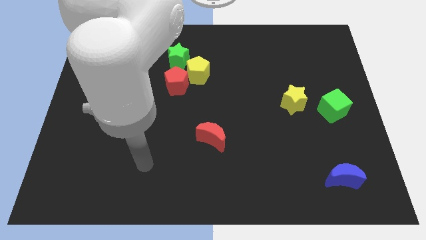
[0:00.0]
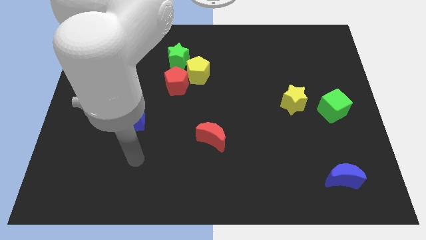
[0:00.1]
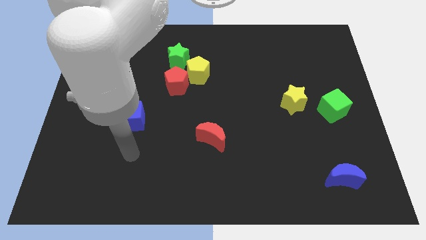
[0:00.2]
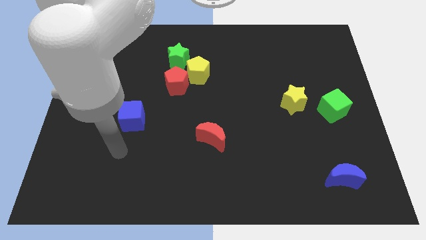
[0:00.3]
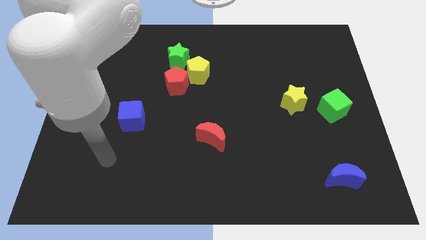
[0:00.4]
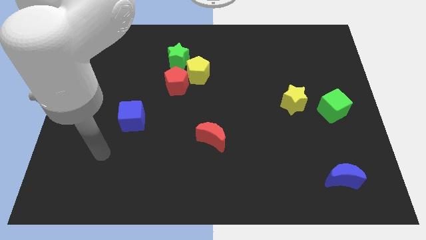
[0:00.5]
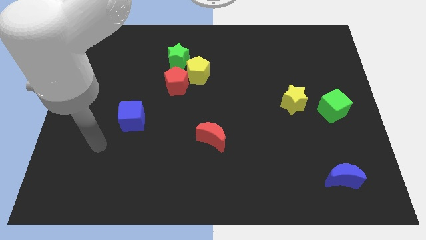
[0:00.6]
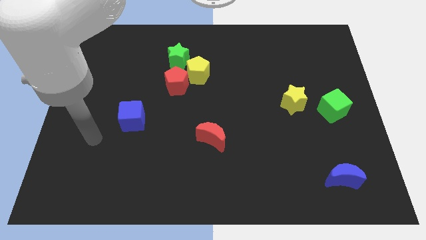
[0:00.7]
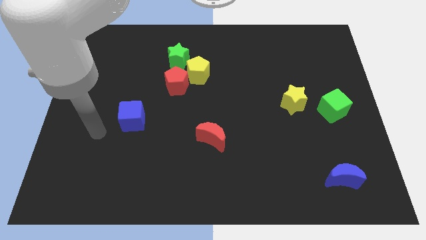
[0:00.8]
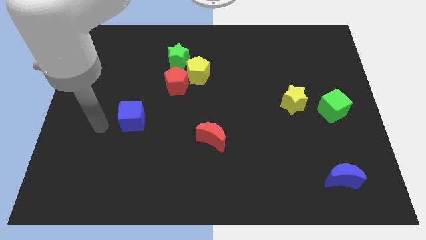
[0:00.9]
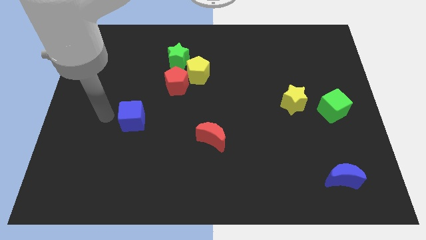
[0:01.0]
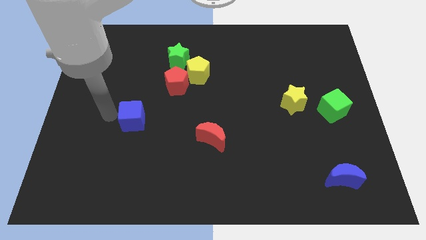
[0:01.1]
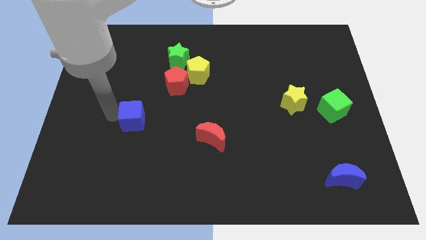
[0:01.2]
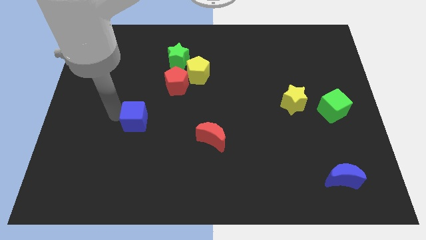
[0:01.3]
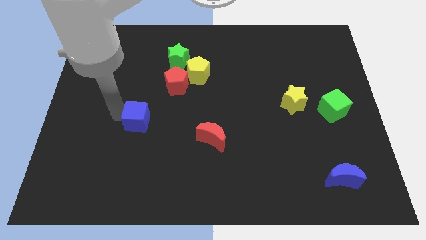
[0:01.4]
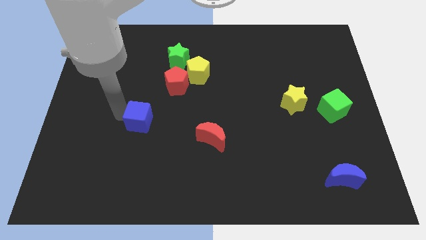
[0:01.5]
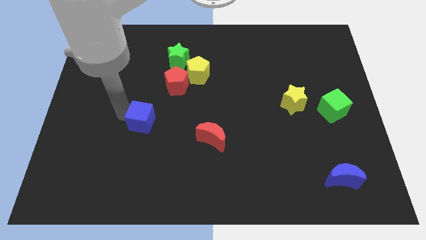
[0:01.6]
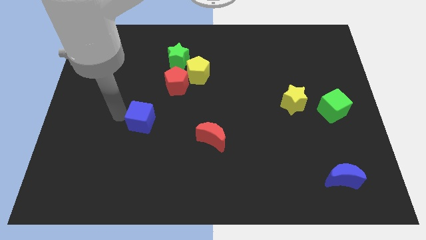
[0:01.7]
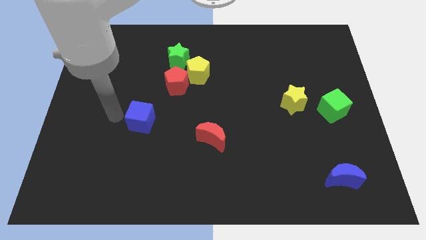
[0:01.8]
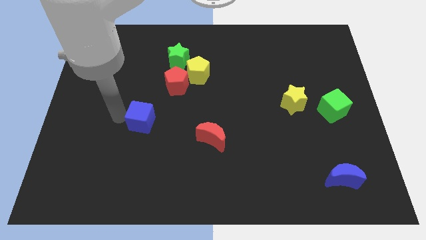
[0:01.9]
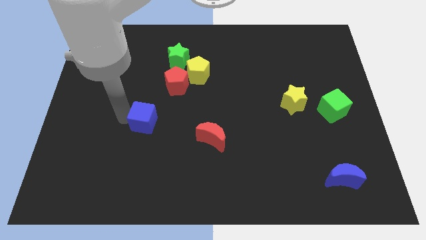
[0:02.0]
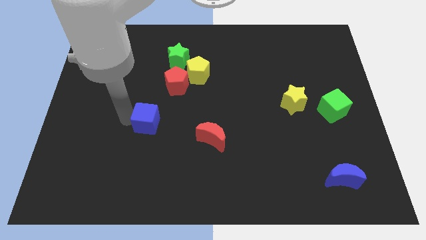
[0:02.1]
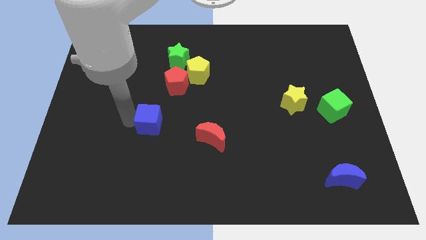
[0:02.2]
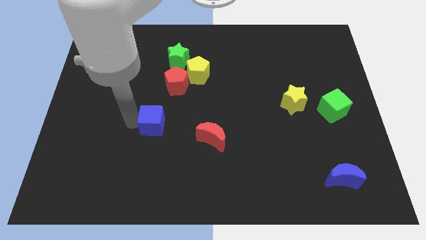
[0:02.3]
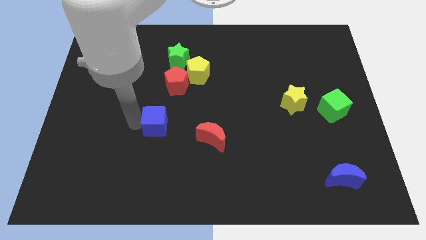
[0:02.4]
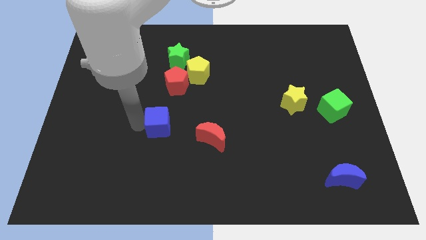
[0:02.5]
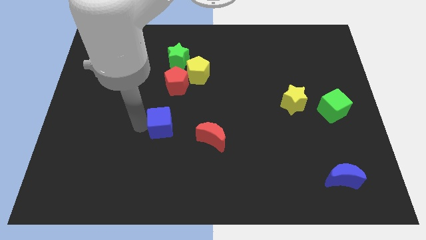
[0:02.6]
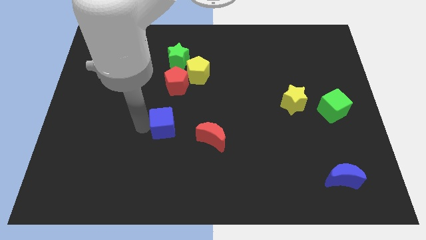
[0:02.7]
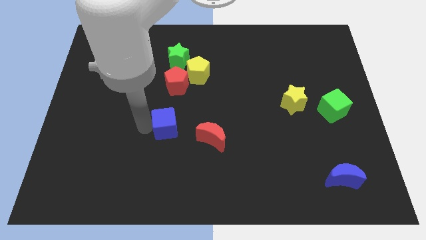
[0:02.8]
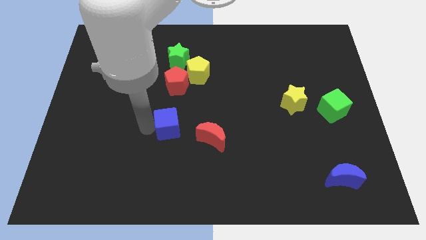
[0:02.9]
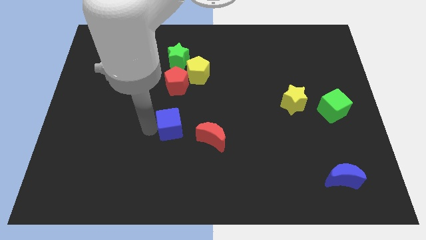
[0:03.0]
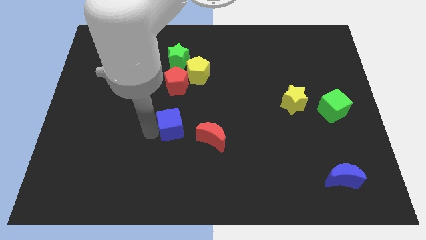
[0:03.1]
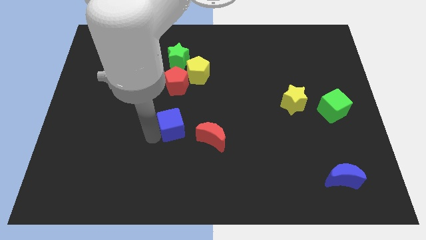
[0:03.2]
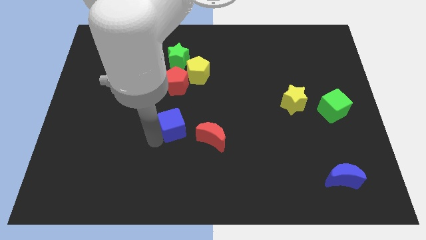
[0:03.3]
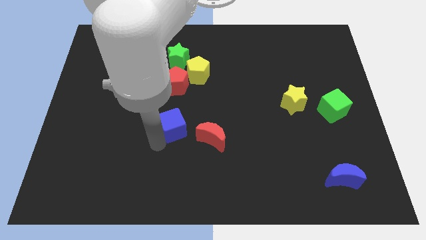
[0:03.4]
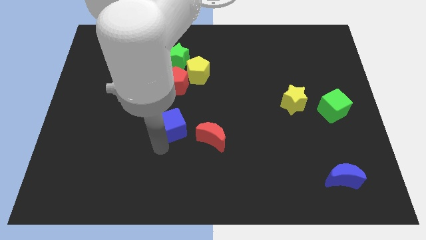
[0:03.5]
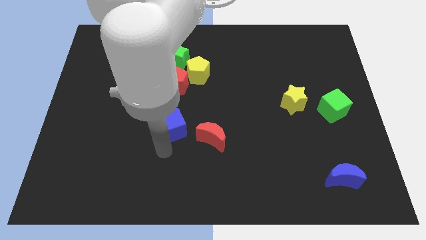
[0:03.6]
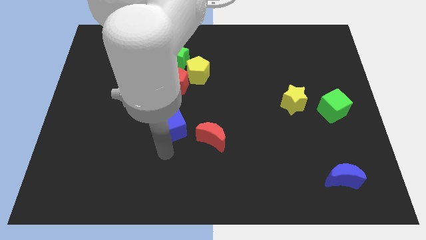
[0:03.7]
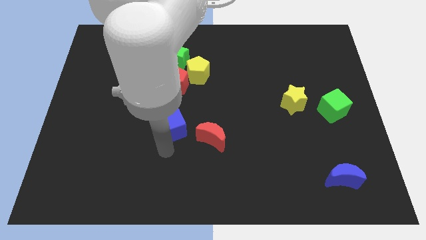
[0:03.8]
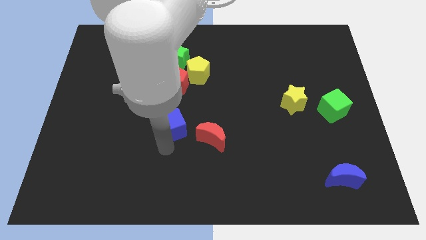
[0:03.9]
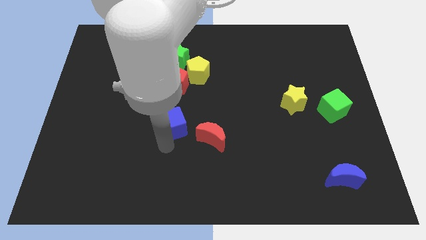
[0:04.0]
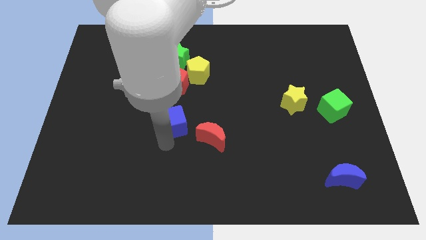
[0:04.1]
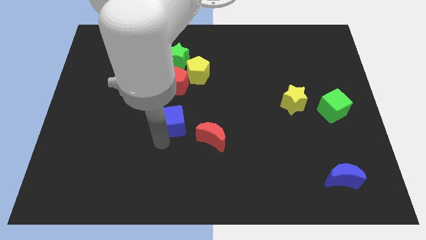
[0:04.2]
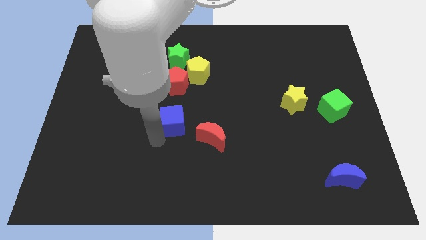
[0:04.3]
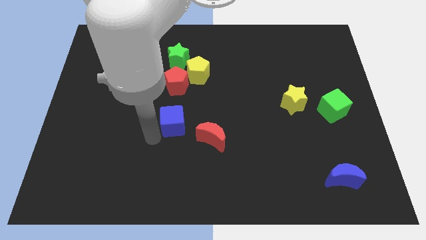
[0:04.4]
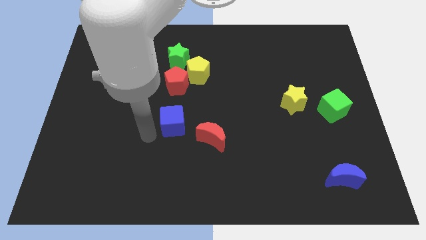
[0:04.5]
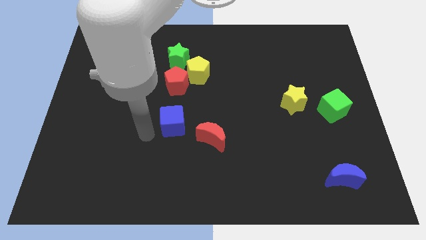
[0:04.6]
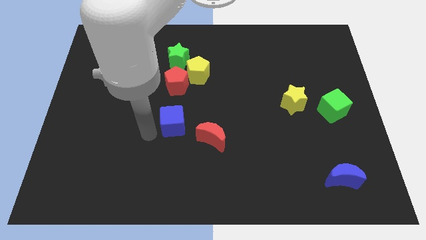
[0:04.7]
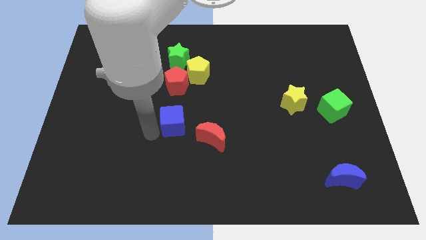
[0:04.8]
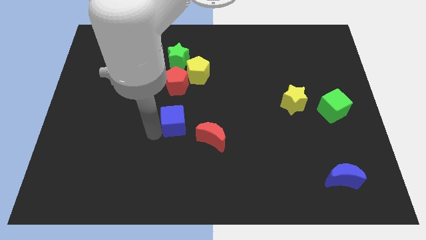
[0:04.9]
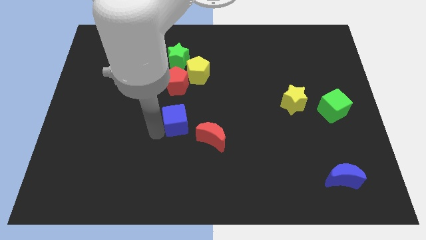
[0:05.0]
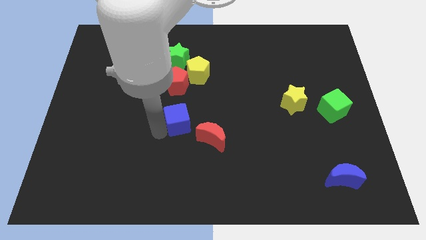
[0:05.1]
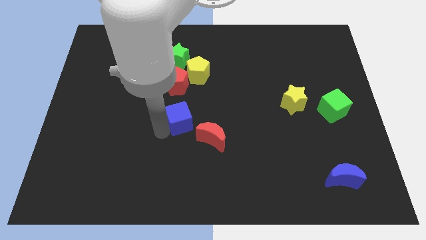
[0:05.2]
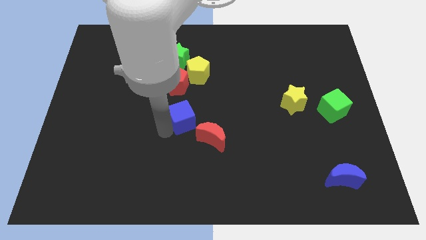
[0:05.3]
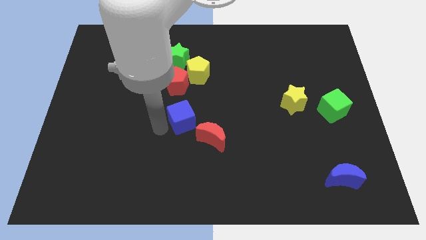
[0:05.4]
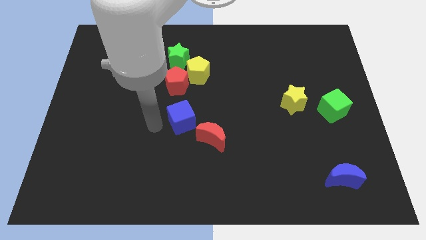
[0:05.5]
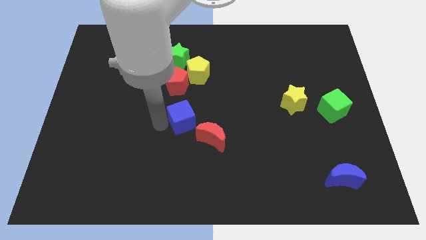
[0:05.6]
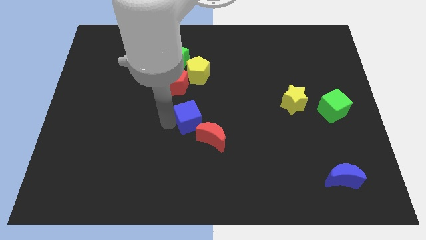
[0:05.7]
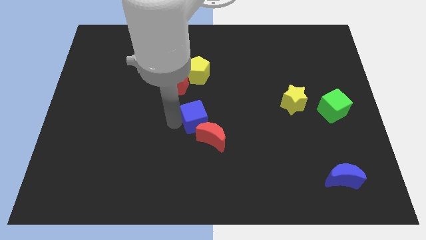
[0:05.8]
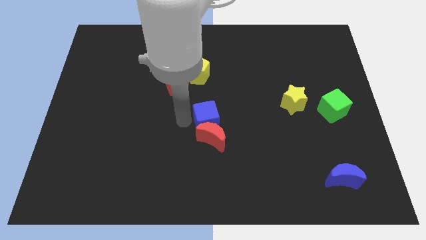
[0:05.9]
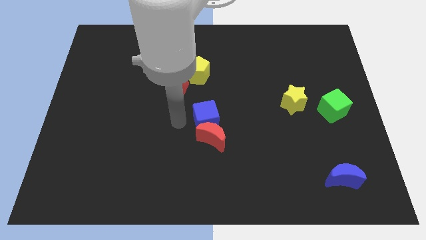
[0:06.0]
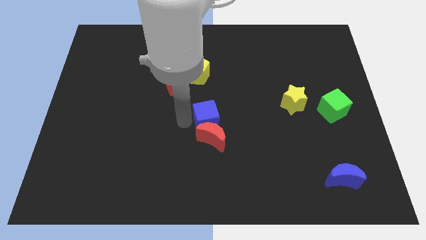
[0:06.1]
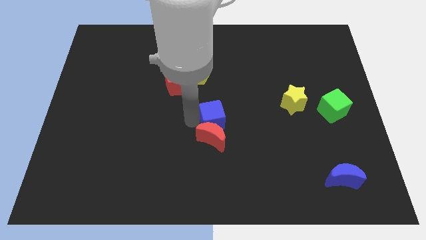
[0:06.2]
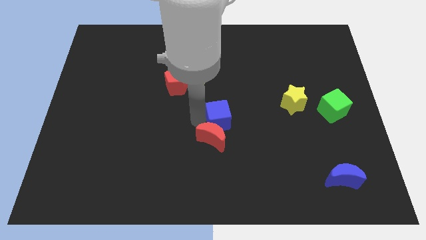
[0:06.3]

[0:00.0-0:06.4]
slide the blue cube right

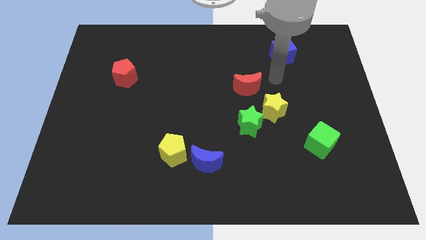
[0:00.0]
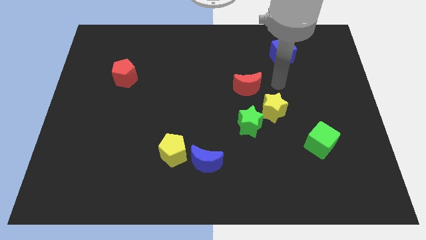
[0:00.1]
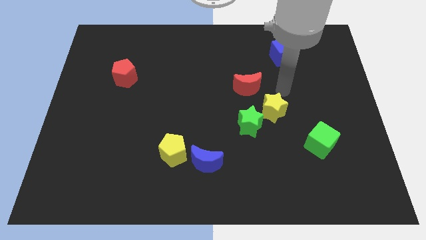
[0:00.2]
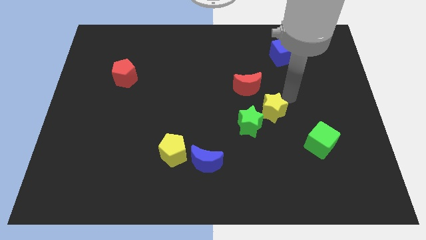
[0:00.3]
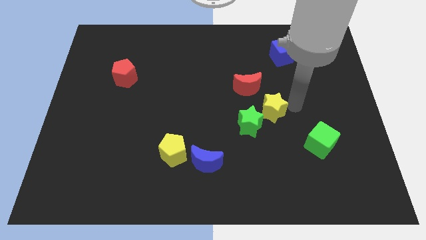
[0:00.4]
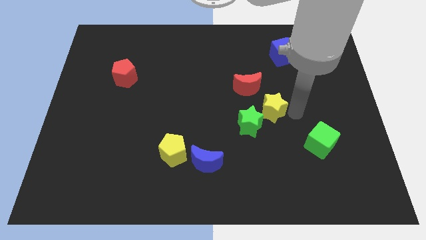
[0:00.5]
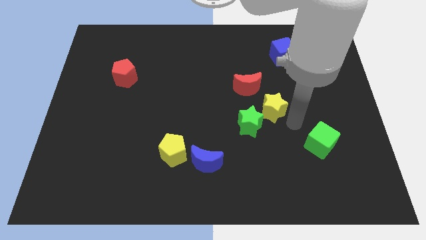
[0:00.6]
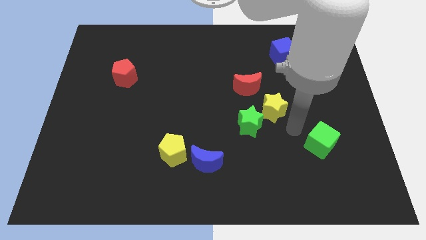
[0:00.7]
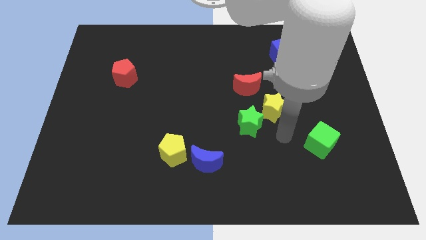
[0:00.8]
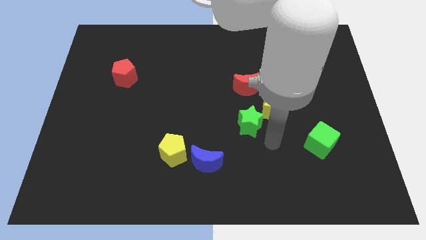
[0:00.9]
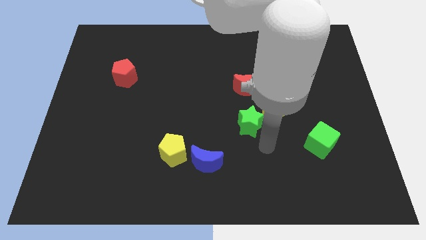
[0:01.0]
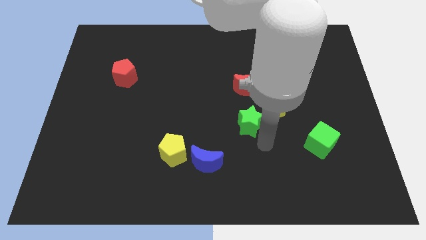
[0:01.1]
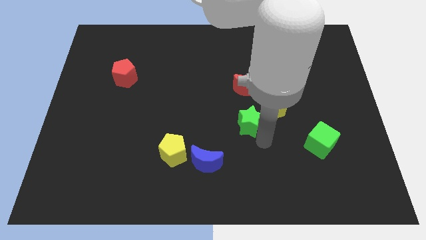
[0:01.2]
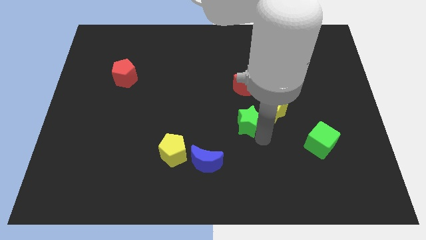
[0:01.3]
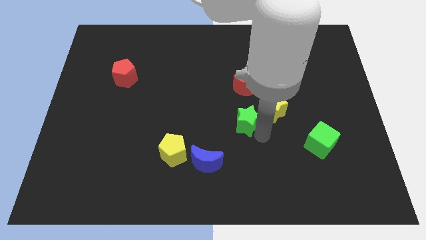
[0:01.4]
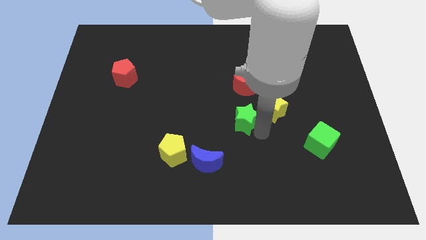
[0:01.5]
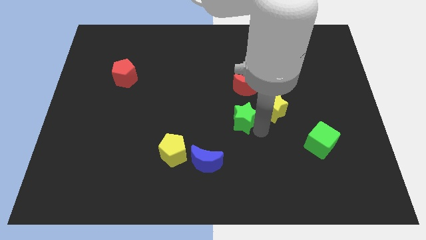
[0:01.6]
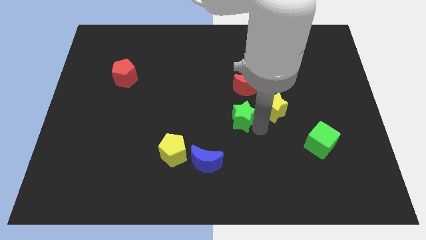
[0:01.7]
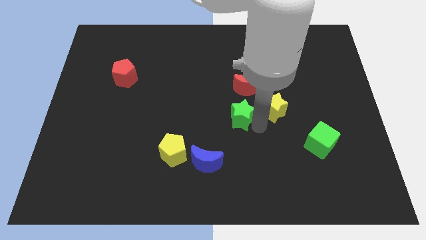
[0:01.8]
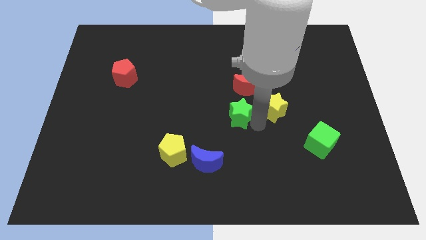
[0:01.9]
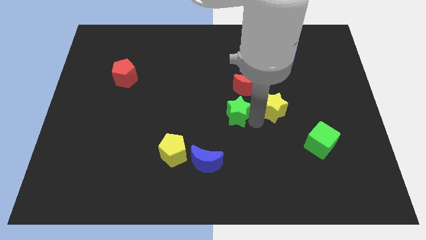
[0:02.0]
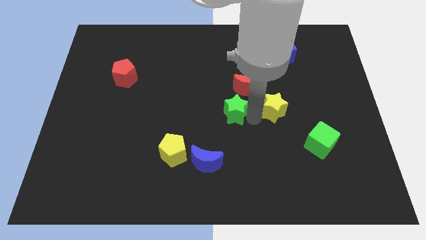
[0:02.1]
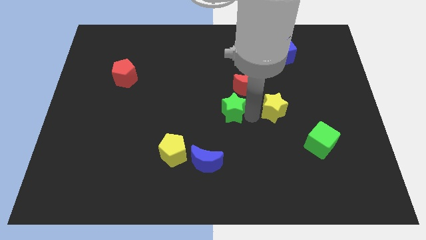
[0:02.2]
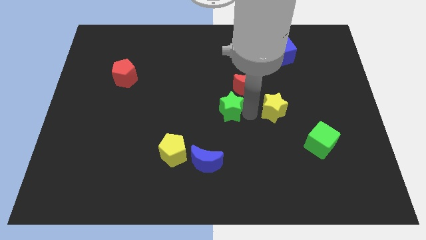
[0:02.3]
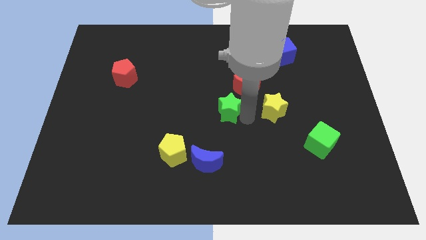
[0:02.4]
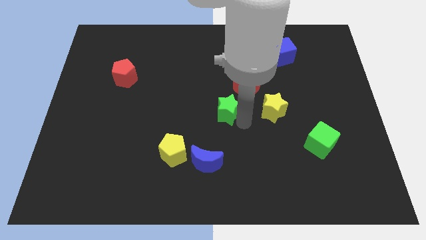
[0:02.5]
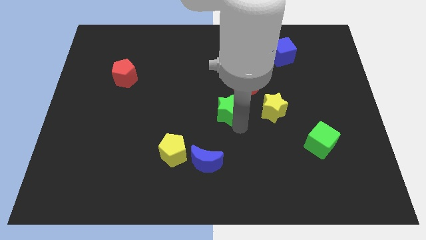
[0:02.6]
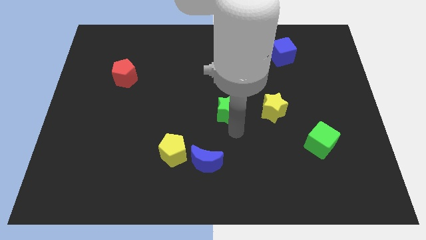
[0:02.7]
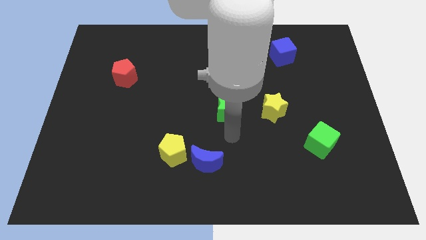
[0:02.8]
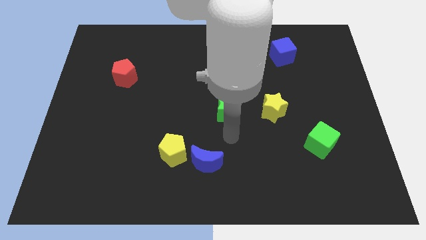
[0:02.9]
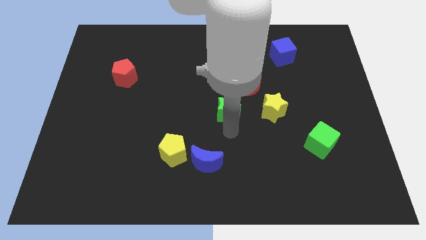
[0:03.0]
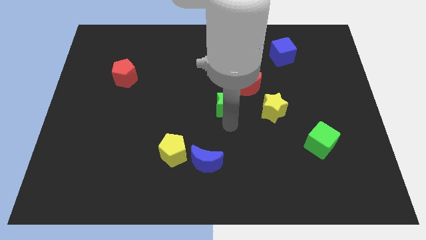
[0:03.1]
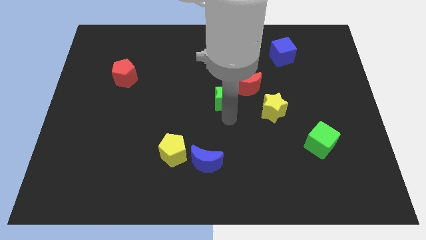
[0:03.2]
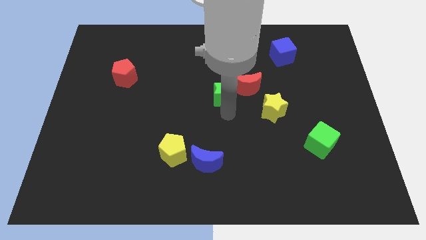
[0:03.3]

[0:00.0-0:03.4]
push the green star up a bit
